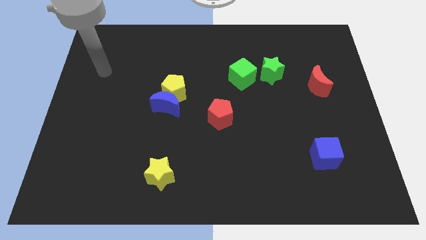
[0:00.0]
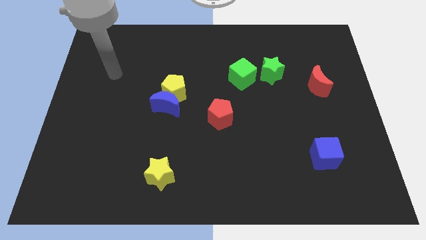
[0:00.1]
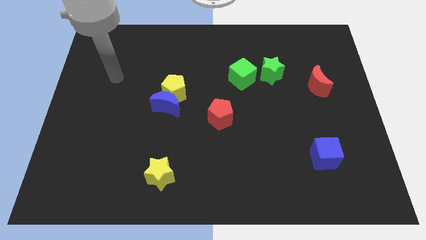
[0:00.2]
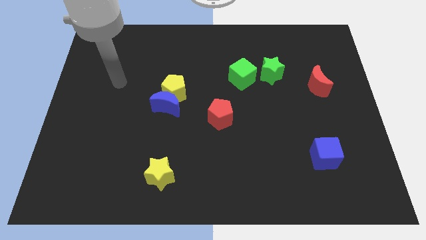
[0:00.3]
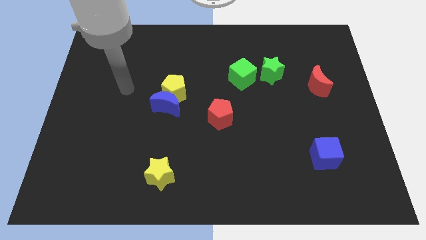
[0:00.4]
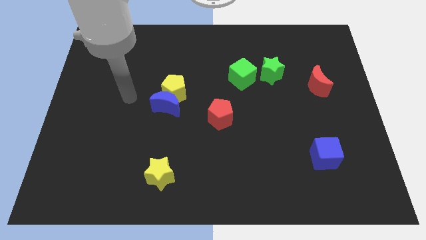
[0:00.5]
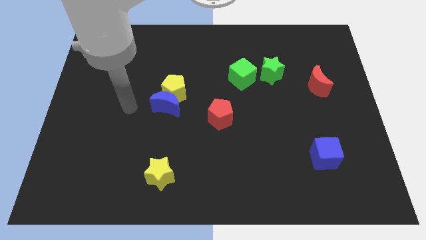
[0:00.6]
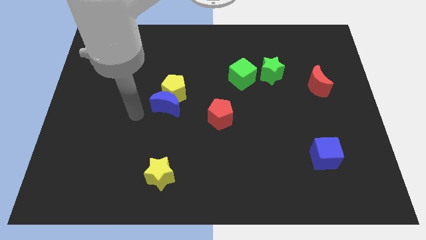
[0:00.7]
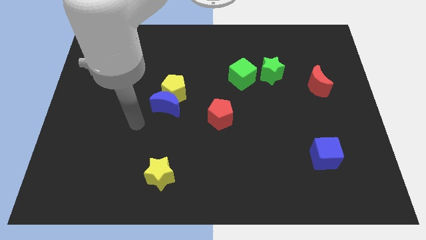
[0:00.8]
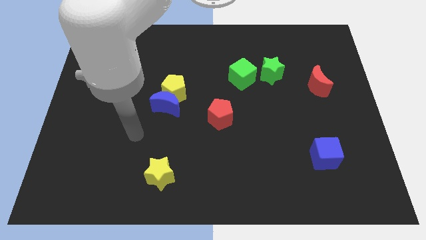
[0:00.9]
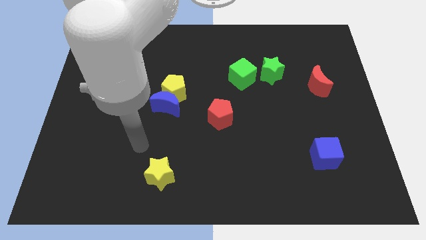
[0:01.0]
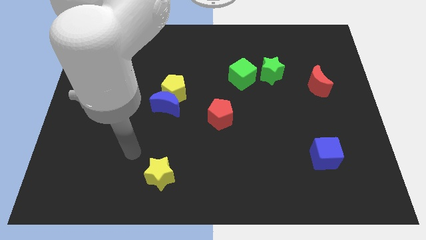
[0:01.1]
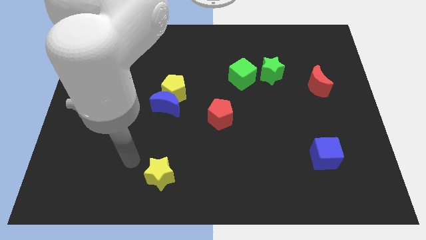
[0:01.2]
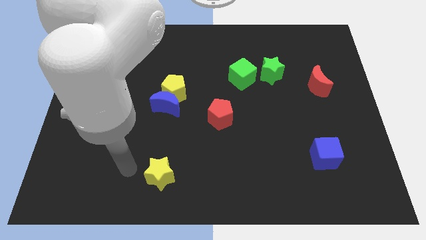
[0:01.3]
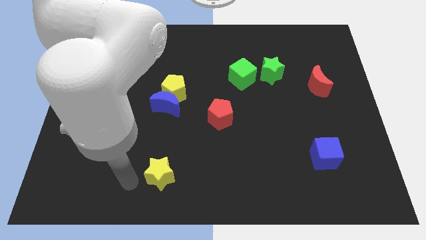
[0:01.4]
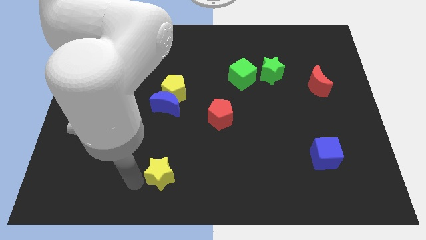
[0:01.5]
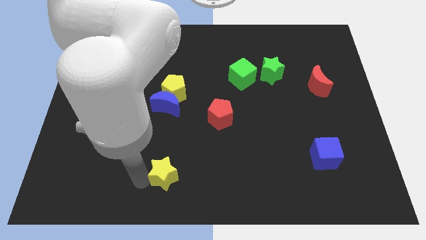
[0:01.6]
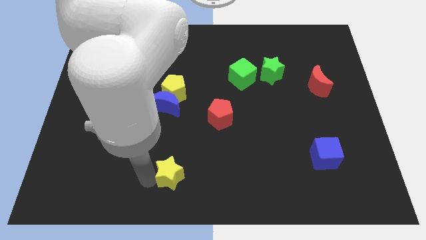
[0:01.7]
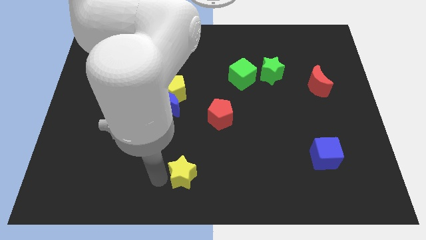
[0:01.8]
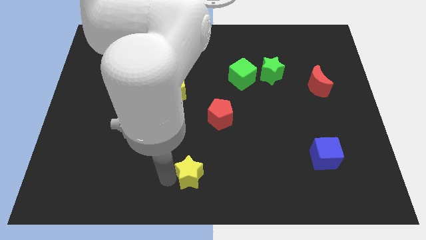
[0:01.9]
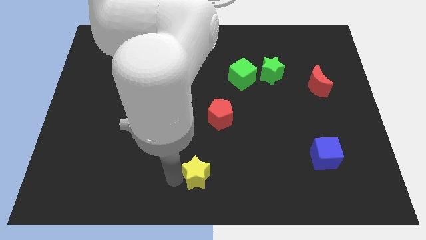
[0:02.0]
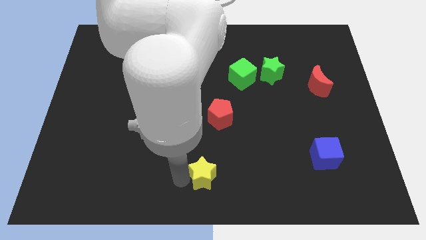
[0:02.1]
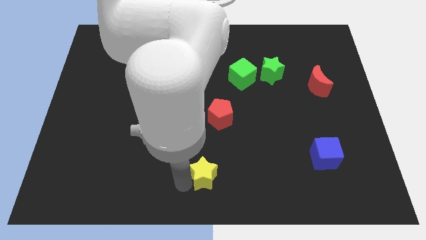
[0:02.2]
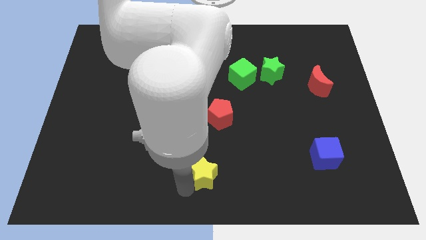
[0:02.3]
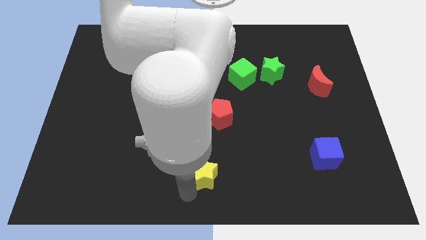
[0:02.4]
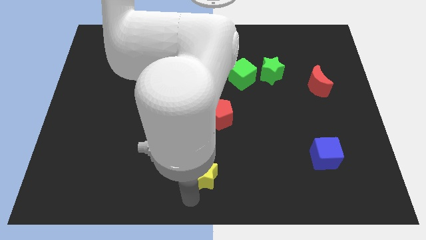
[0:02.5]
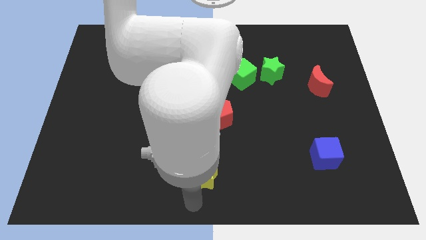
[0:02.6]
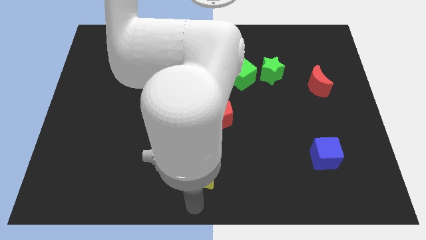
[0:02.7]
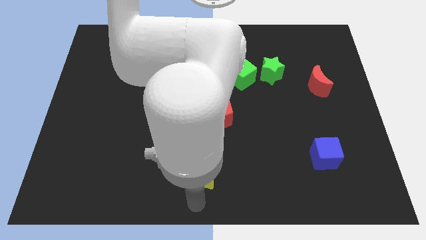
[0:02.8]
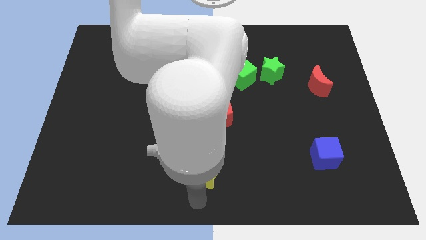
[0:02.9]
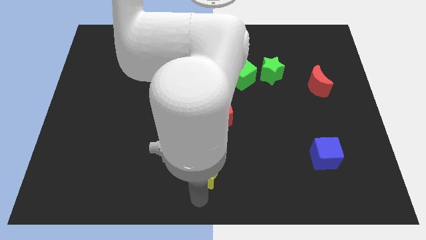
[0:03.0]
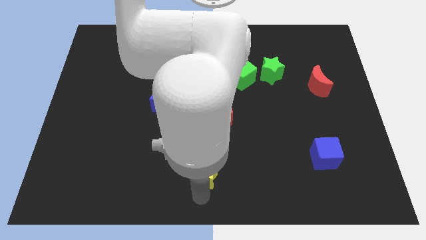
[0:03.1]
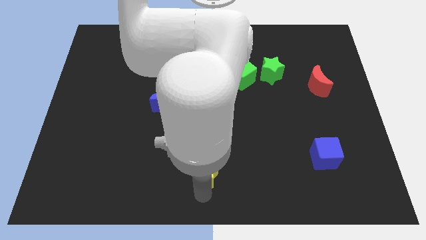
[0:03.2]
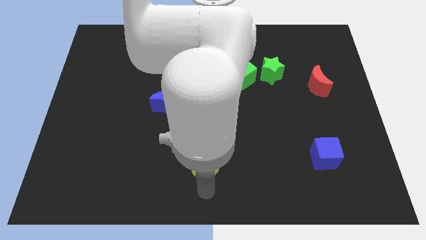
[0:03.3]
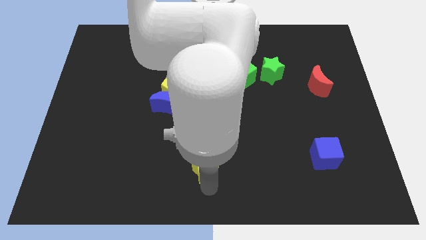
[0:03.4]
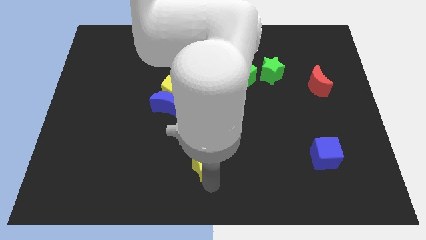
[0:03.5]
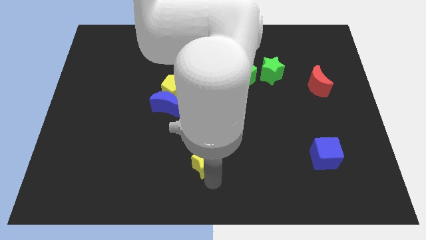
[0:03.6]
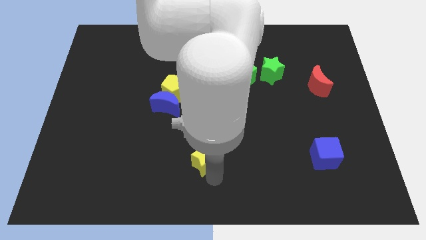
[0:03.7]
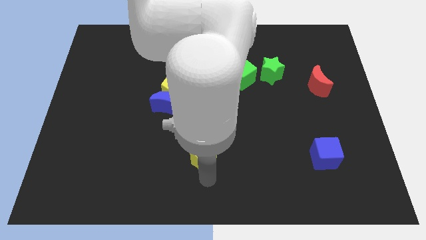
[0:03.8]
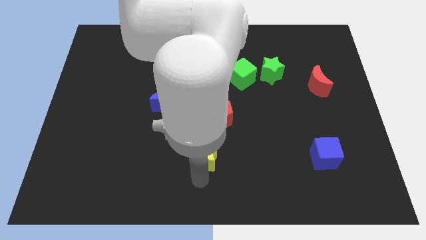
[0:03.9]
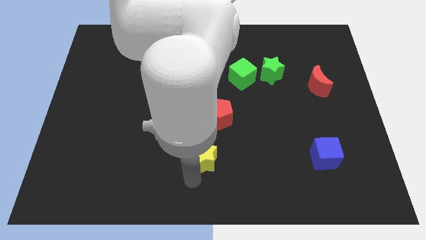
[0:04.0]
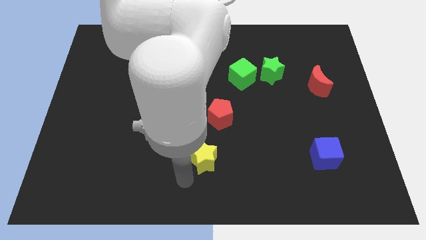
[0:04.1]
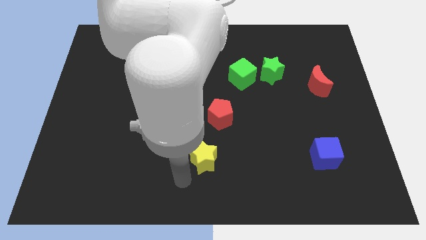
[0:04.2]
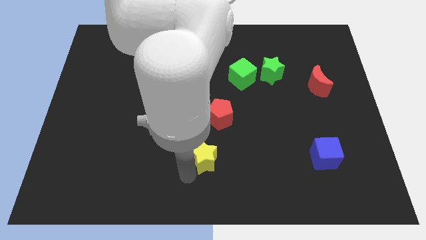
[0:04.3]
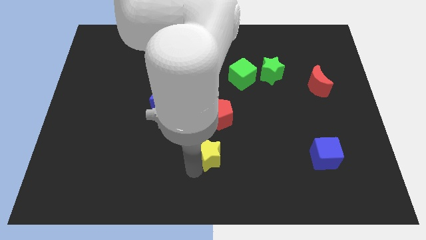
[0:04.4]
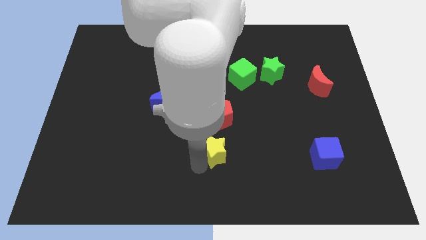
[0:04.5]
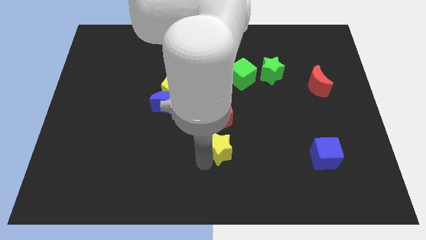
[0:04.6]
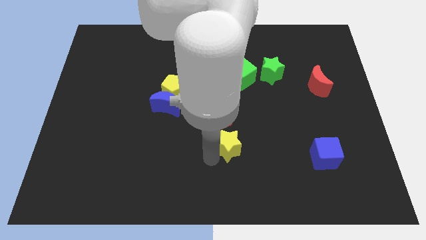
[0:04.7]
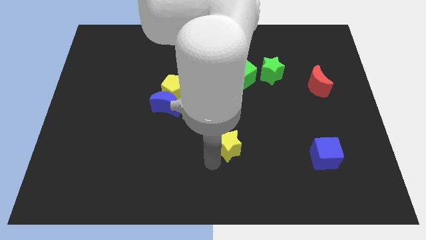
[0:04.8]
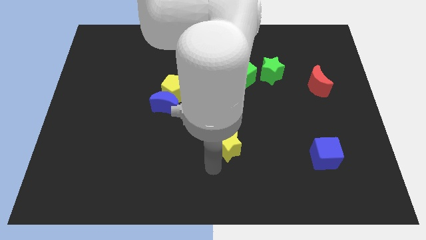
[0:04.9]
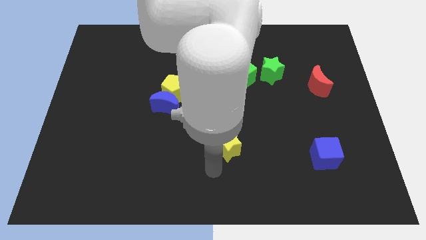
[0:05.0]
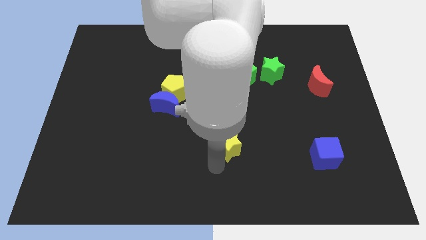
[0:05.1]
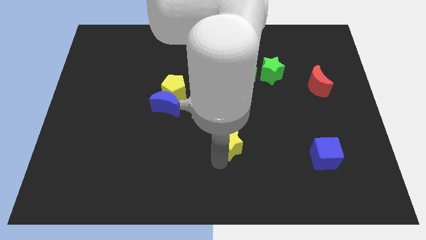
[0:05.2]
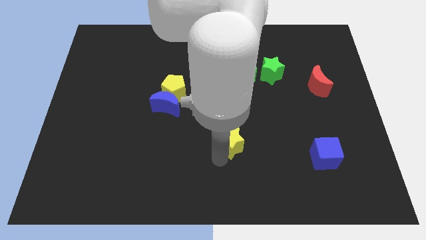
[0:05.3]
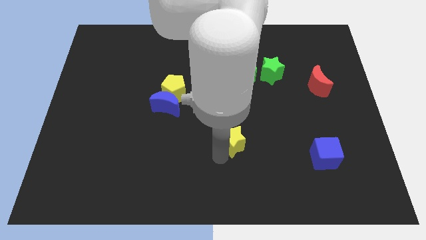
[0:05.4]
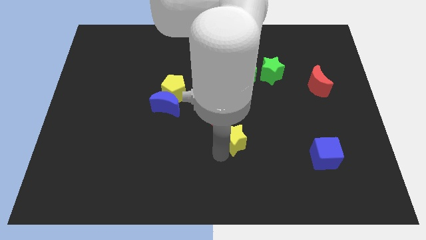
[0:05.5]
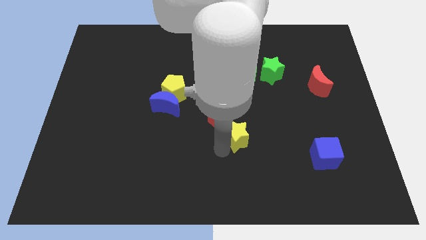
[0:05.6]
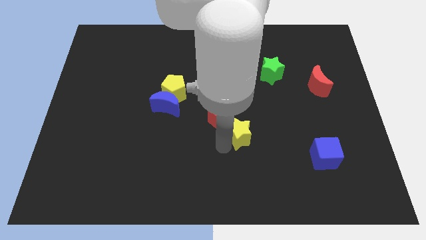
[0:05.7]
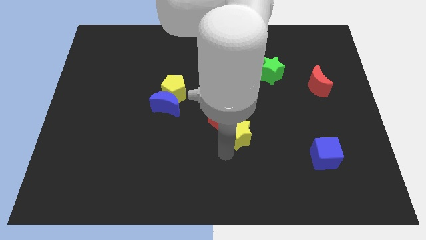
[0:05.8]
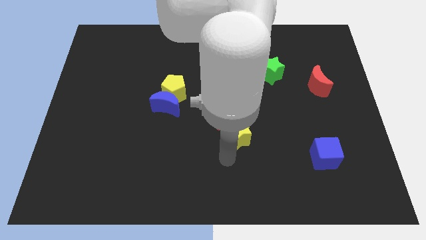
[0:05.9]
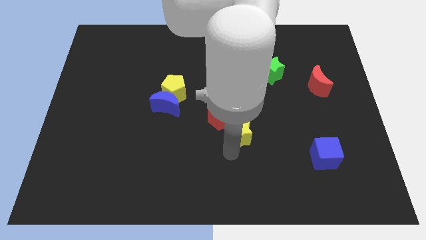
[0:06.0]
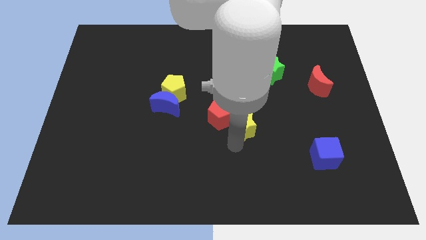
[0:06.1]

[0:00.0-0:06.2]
move the yellow star upwards and right diagonally

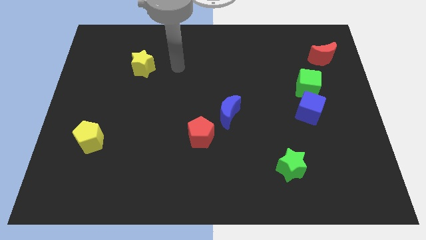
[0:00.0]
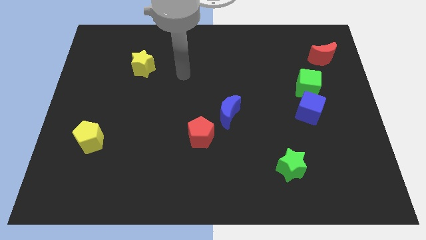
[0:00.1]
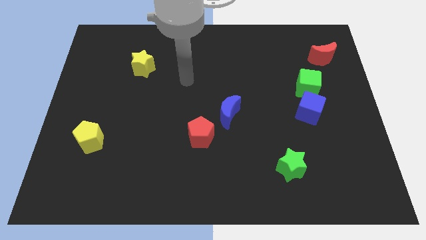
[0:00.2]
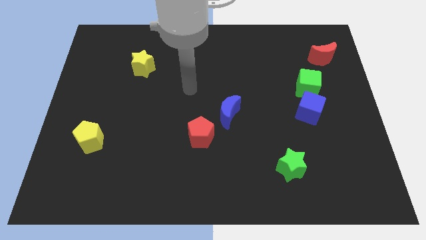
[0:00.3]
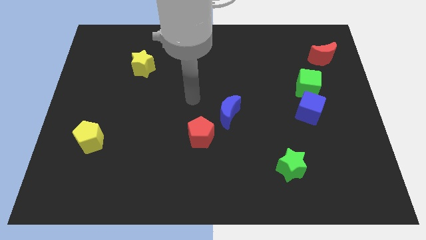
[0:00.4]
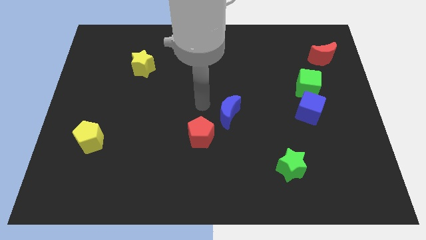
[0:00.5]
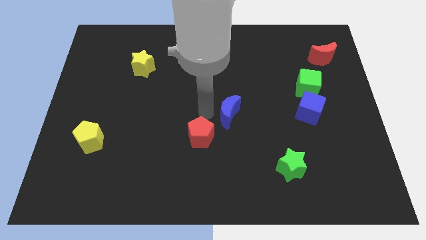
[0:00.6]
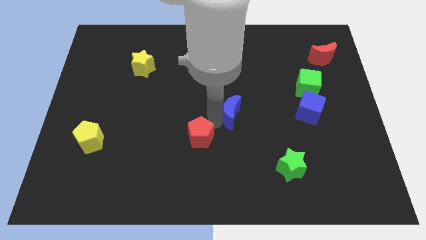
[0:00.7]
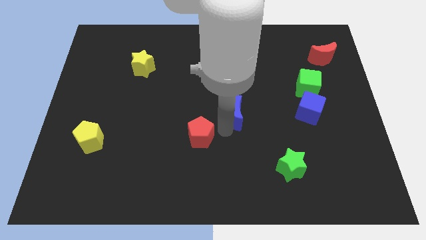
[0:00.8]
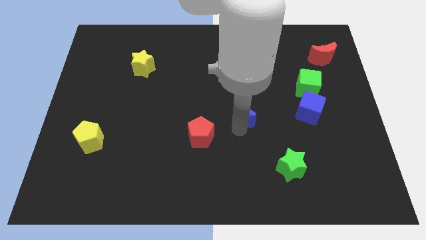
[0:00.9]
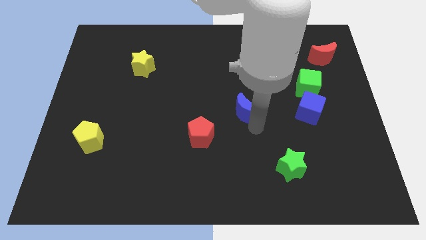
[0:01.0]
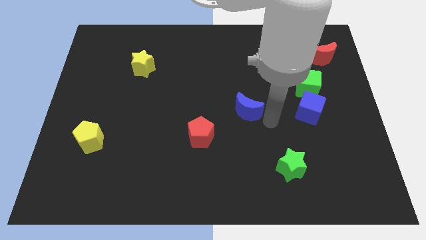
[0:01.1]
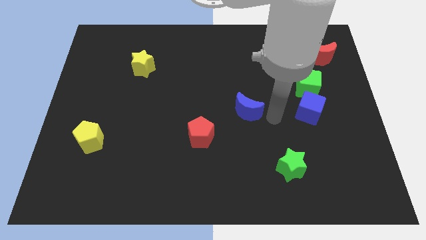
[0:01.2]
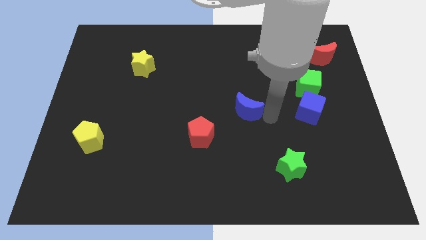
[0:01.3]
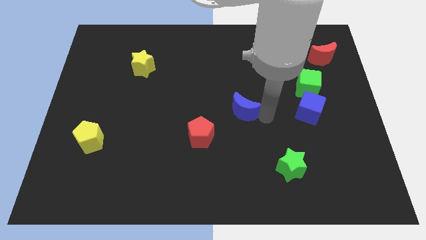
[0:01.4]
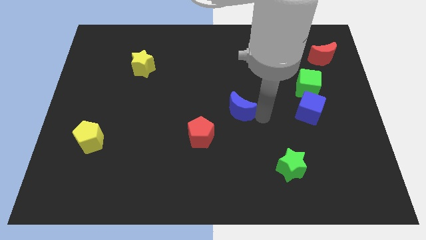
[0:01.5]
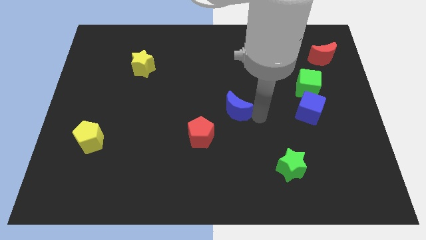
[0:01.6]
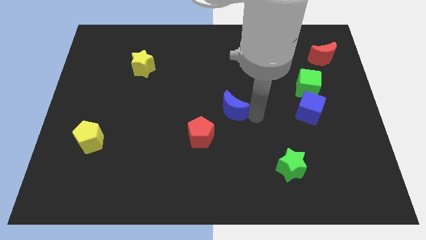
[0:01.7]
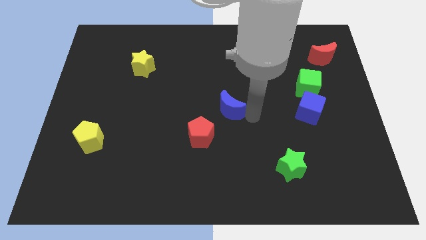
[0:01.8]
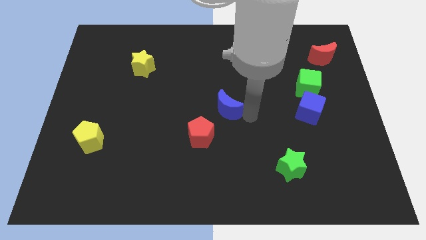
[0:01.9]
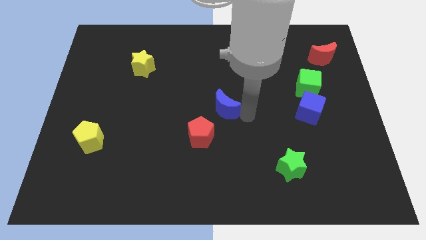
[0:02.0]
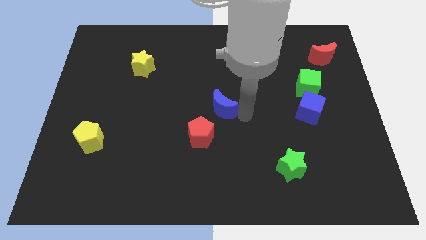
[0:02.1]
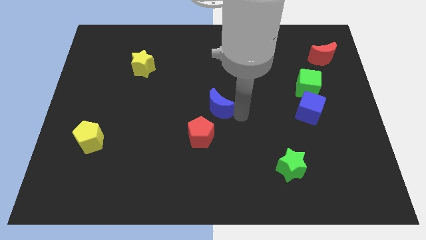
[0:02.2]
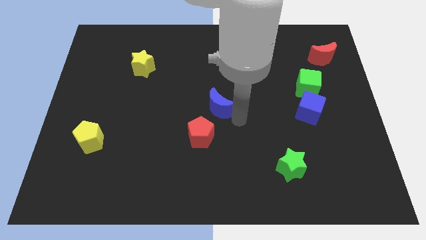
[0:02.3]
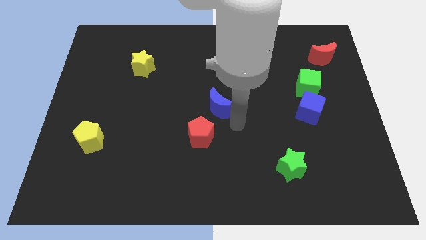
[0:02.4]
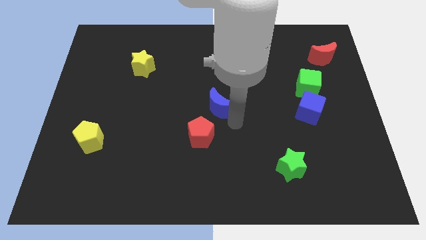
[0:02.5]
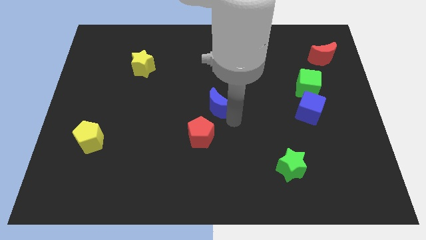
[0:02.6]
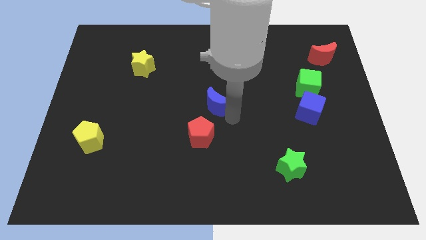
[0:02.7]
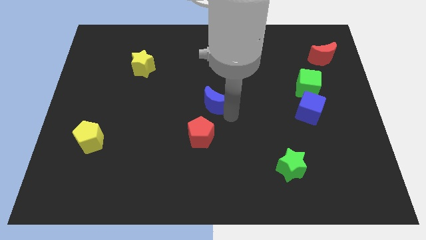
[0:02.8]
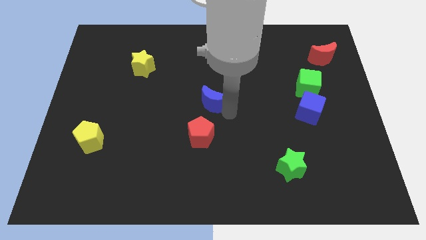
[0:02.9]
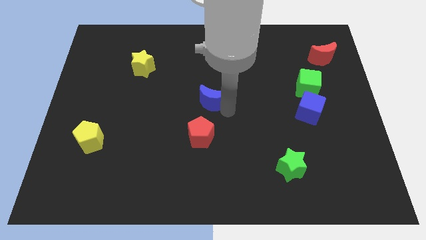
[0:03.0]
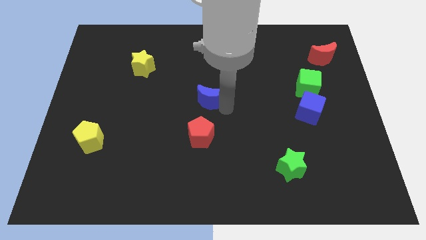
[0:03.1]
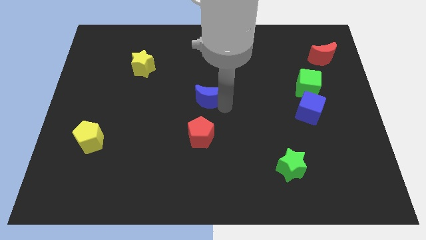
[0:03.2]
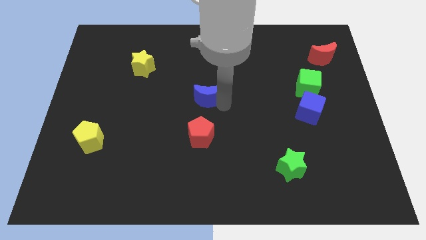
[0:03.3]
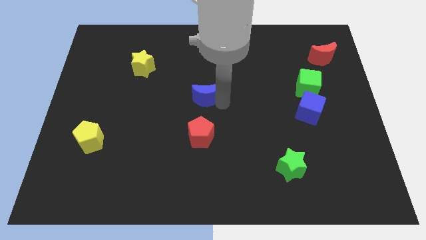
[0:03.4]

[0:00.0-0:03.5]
push the blue moon slightly up and left diagonally
